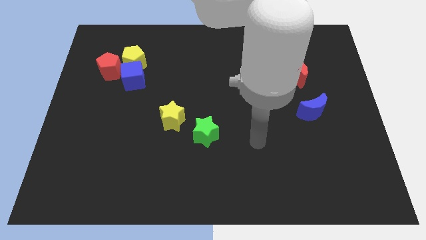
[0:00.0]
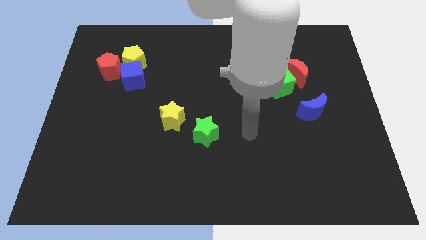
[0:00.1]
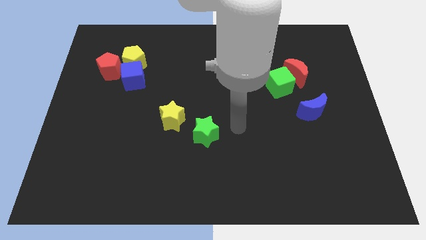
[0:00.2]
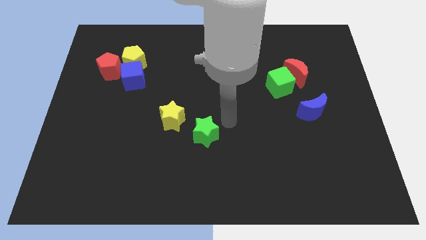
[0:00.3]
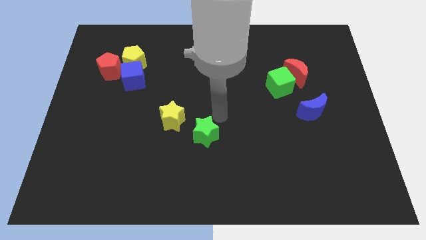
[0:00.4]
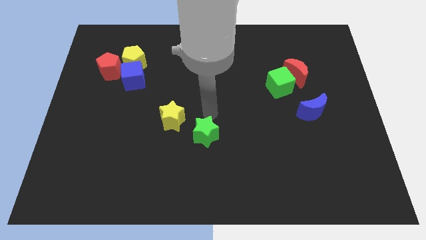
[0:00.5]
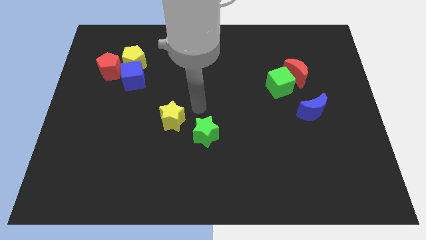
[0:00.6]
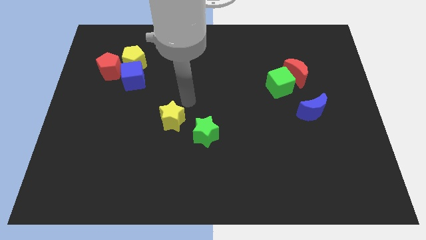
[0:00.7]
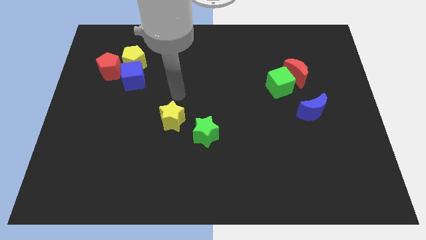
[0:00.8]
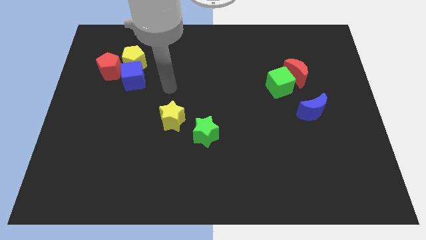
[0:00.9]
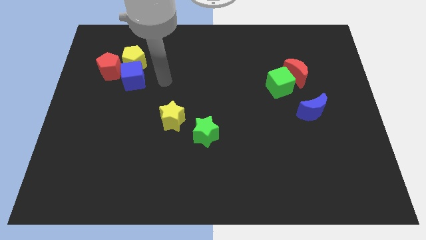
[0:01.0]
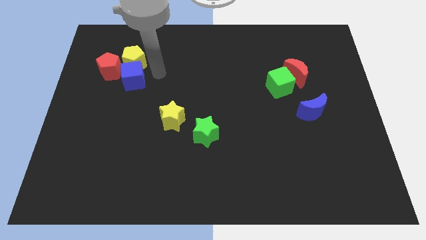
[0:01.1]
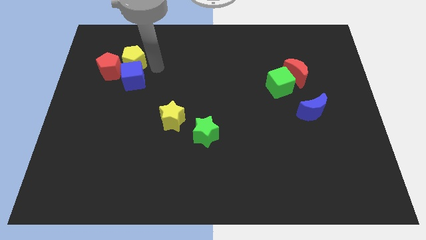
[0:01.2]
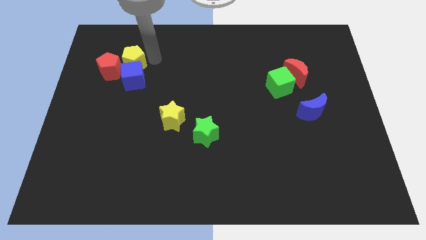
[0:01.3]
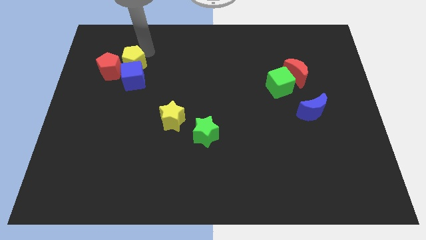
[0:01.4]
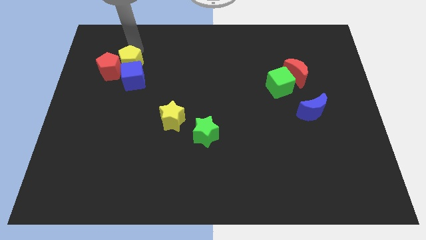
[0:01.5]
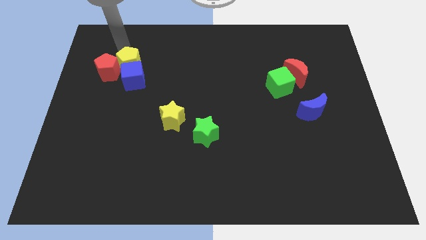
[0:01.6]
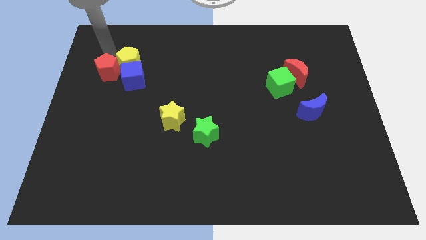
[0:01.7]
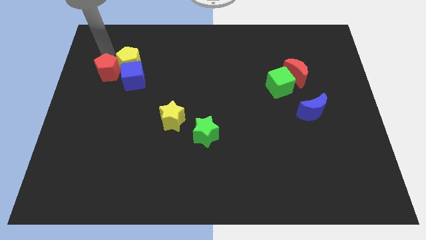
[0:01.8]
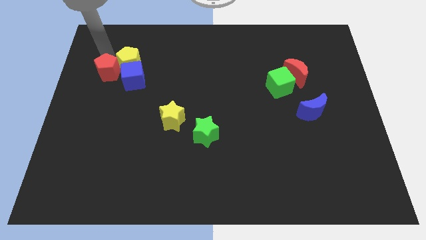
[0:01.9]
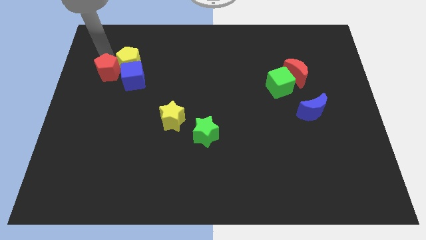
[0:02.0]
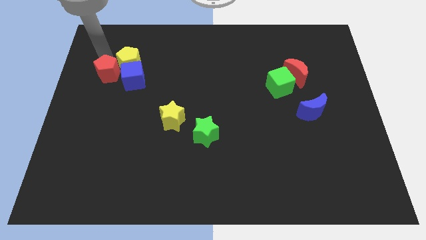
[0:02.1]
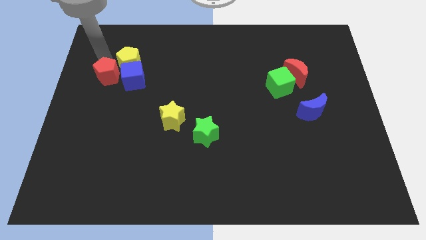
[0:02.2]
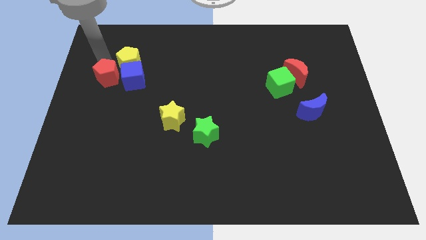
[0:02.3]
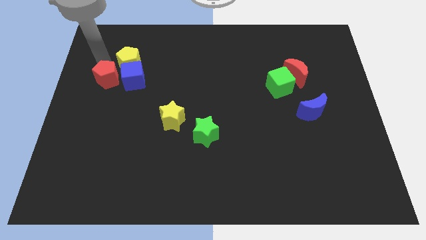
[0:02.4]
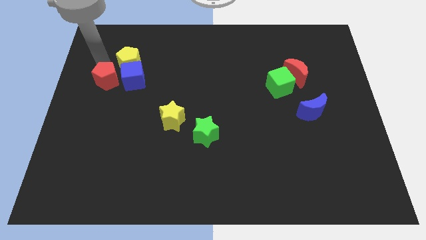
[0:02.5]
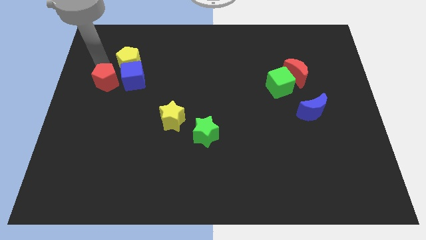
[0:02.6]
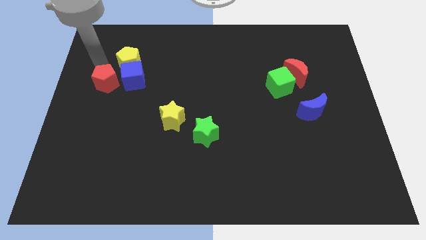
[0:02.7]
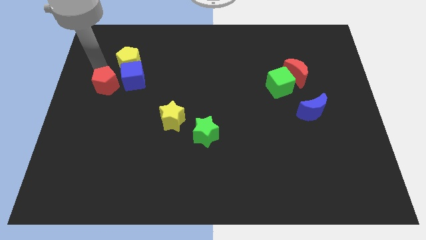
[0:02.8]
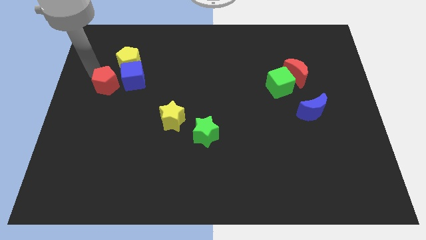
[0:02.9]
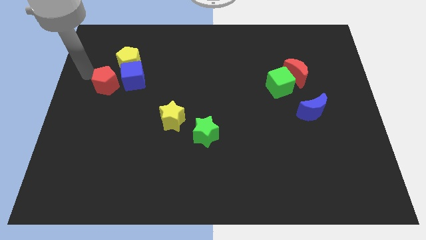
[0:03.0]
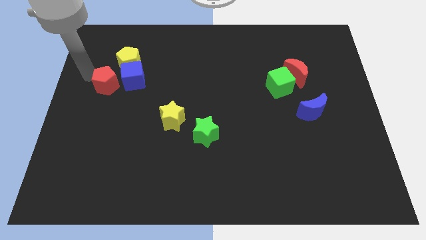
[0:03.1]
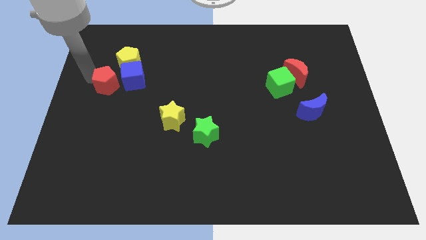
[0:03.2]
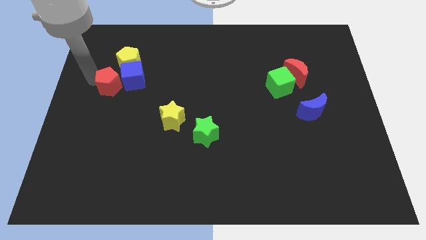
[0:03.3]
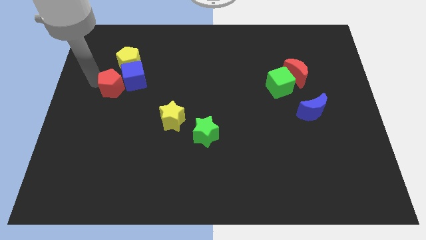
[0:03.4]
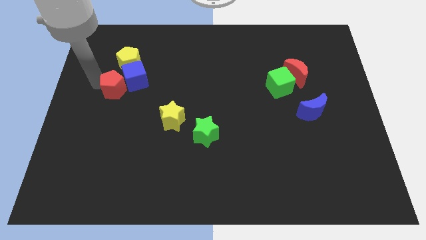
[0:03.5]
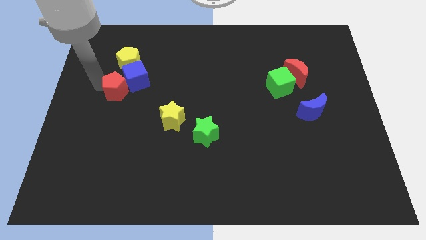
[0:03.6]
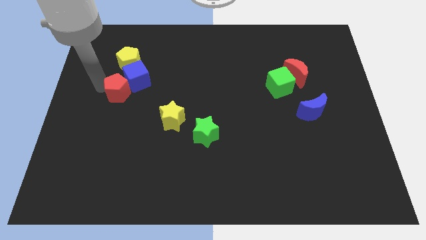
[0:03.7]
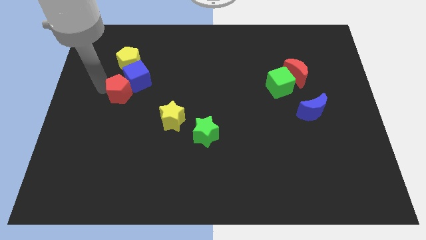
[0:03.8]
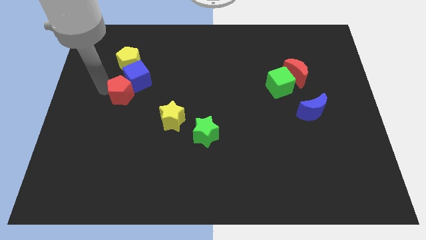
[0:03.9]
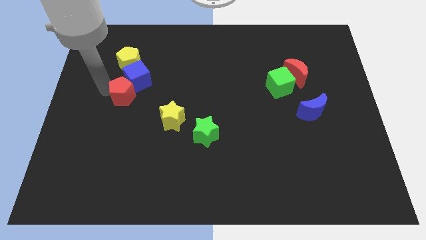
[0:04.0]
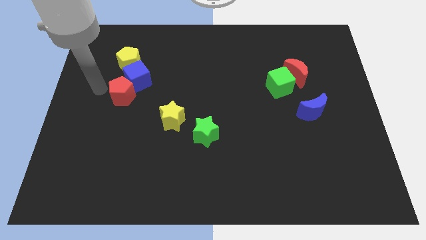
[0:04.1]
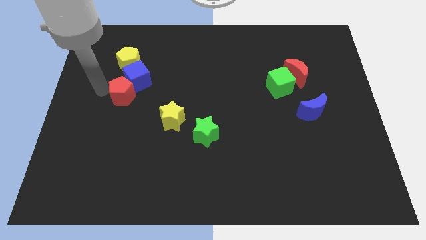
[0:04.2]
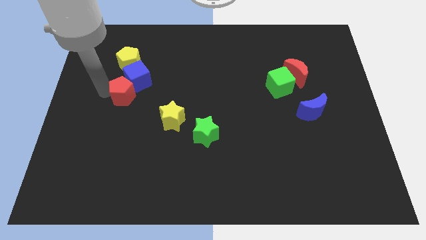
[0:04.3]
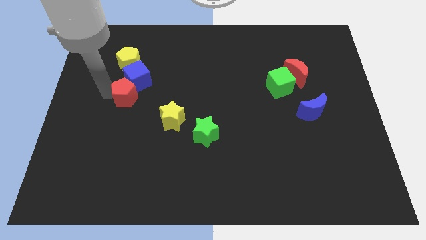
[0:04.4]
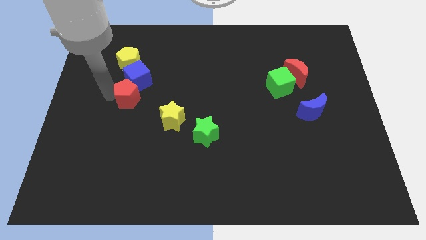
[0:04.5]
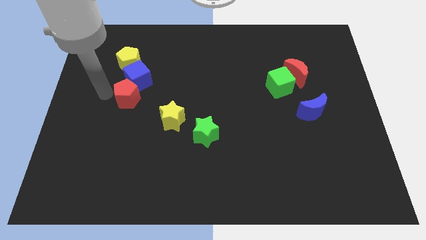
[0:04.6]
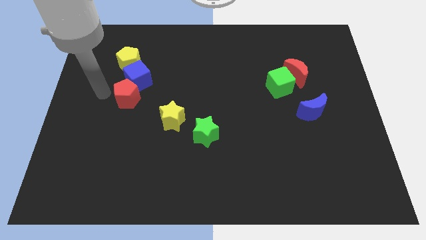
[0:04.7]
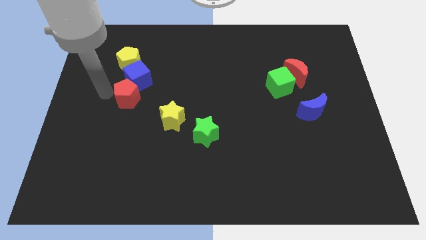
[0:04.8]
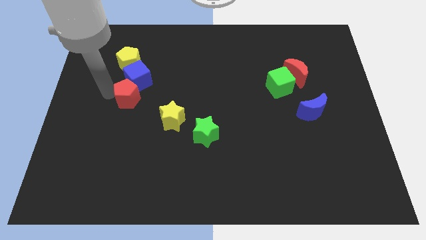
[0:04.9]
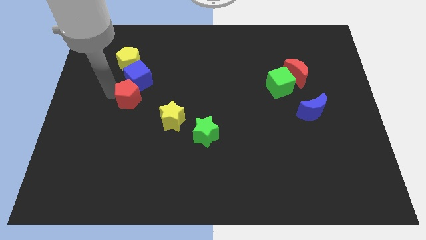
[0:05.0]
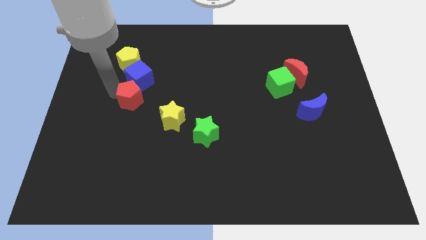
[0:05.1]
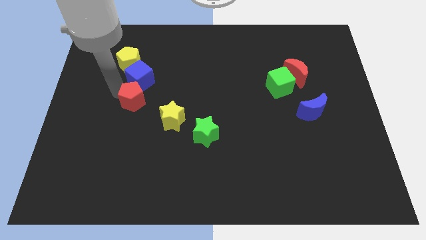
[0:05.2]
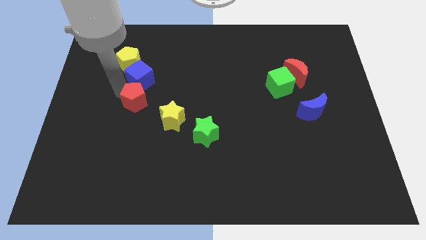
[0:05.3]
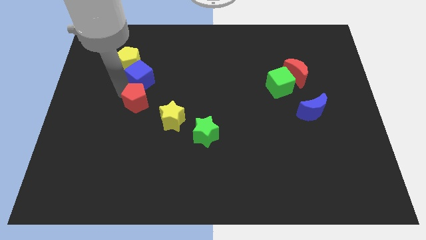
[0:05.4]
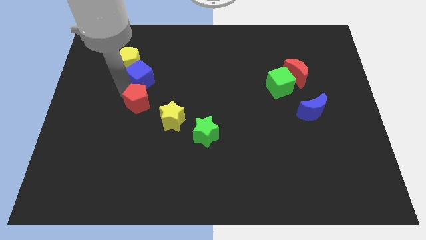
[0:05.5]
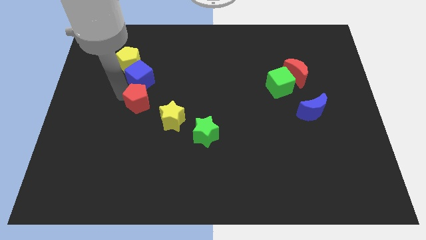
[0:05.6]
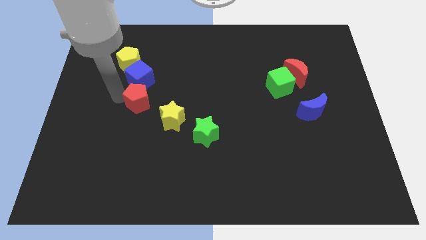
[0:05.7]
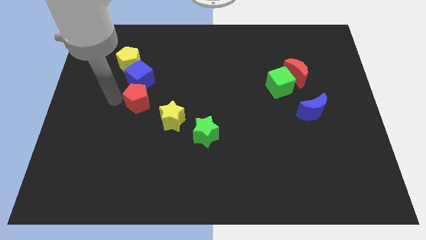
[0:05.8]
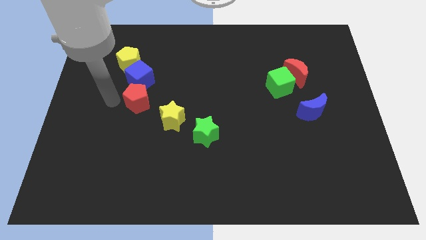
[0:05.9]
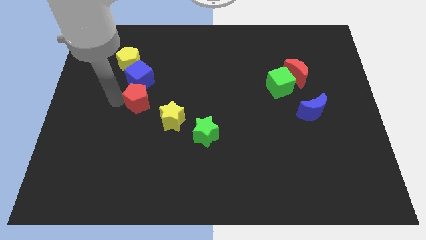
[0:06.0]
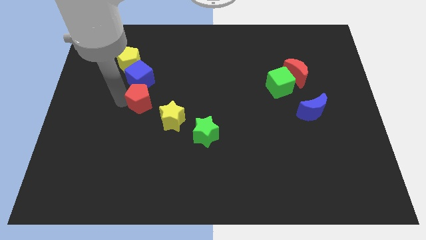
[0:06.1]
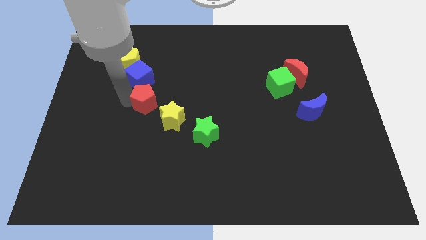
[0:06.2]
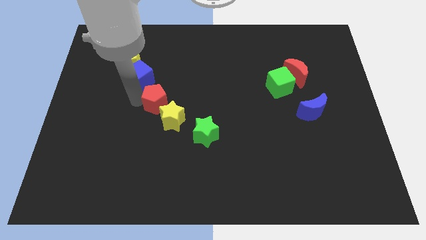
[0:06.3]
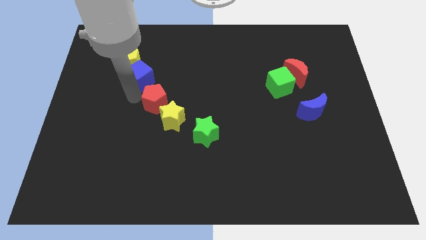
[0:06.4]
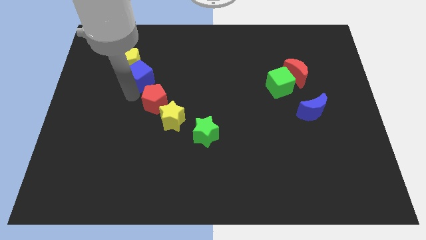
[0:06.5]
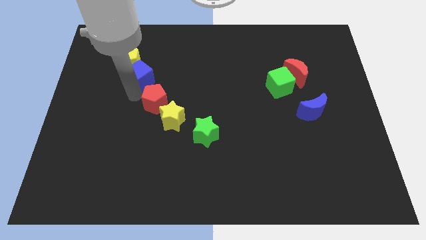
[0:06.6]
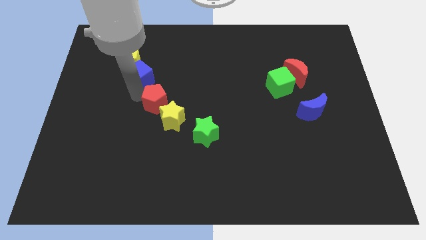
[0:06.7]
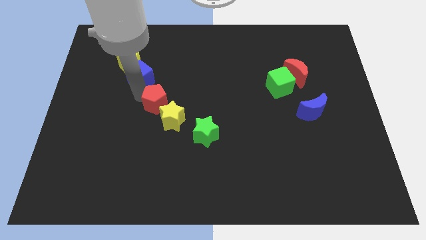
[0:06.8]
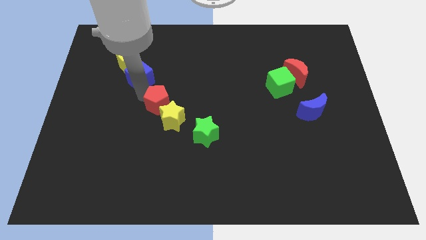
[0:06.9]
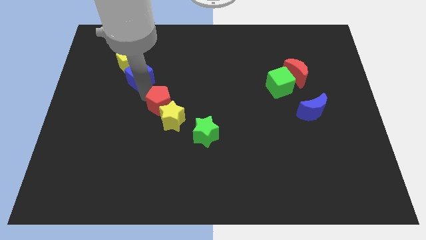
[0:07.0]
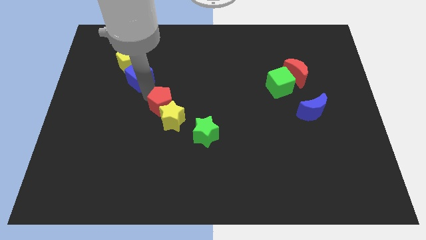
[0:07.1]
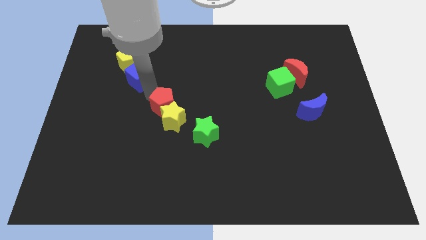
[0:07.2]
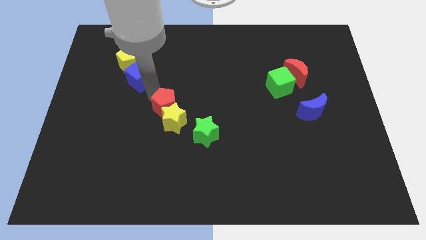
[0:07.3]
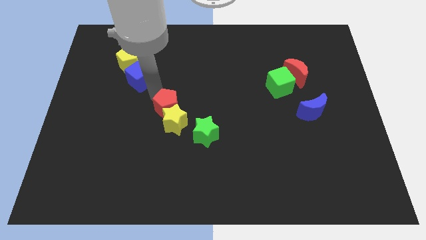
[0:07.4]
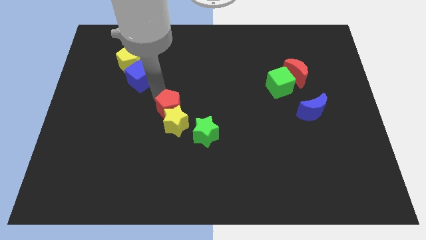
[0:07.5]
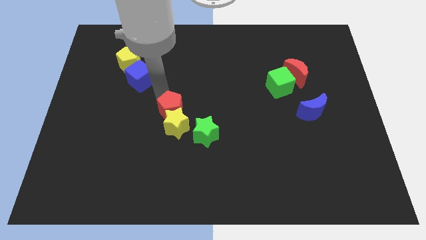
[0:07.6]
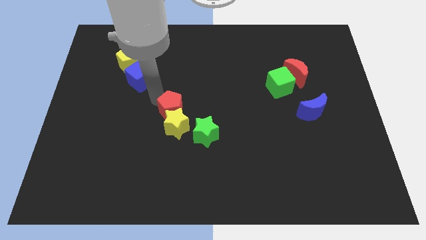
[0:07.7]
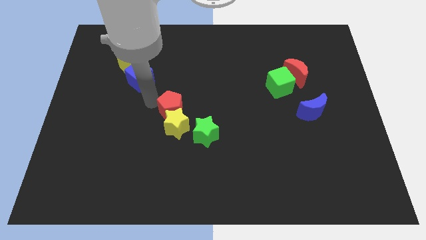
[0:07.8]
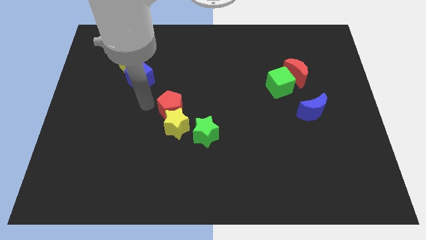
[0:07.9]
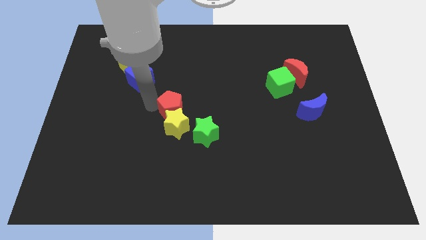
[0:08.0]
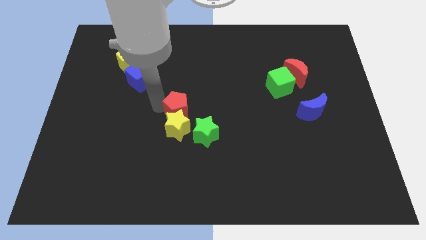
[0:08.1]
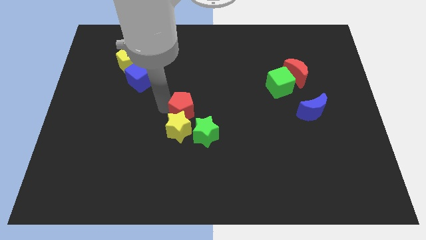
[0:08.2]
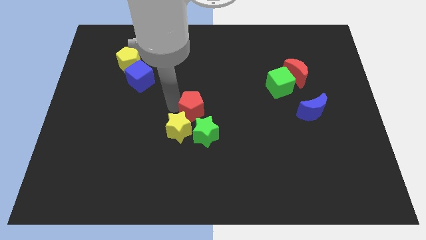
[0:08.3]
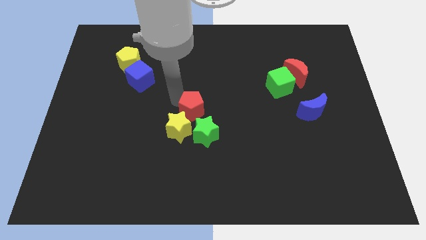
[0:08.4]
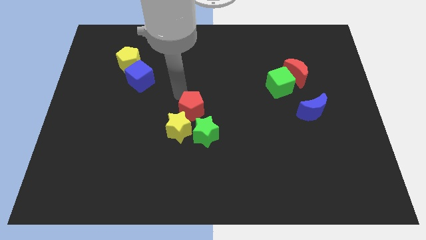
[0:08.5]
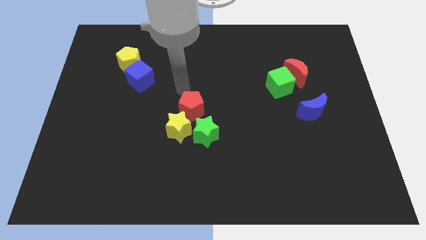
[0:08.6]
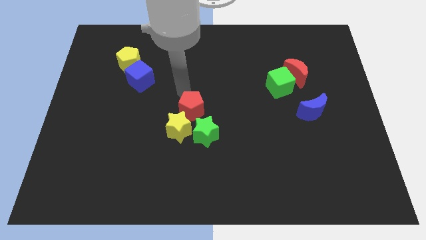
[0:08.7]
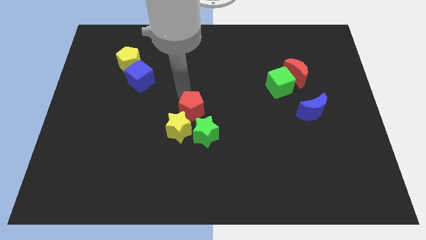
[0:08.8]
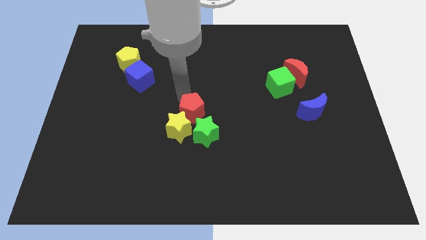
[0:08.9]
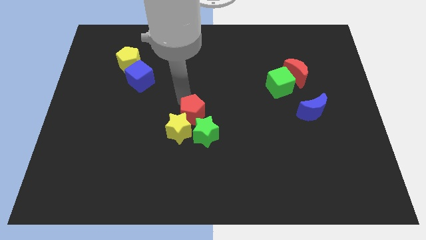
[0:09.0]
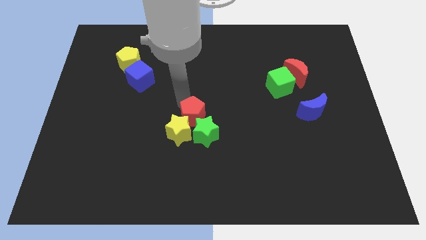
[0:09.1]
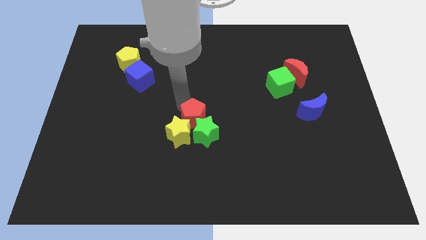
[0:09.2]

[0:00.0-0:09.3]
push the red pentagon next to the green star
